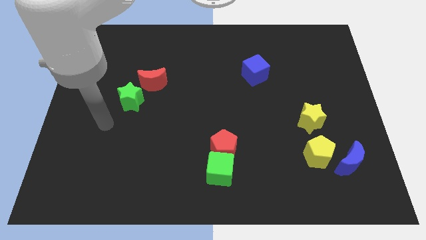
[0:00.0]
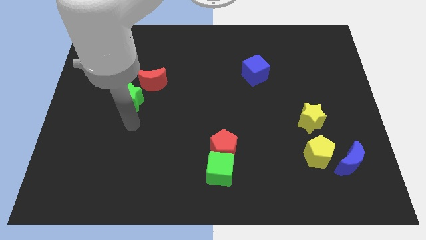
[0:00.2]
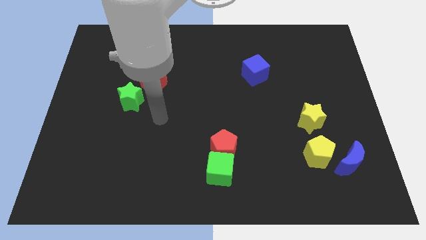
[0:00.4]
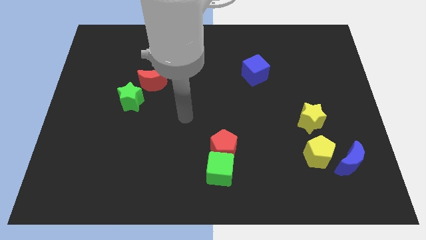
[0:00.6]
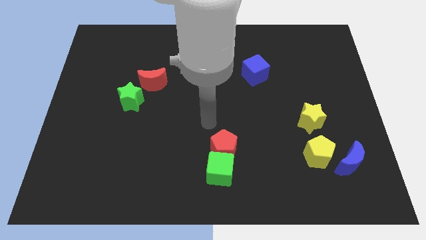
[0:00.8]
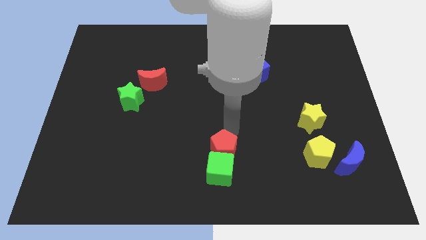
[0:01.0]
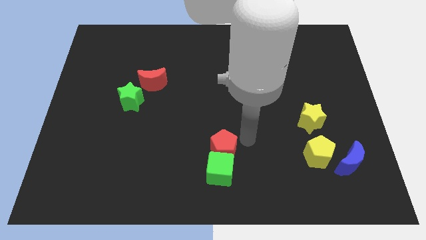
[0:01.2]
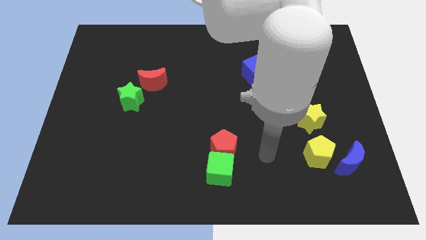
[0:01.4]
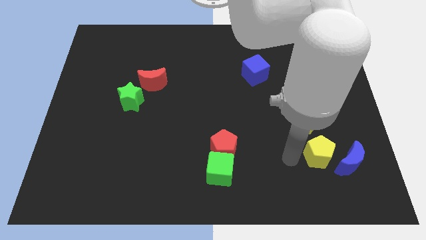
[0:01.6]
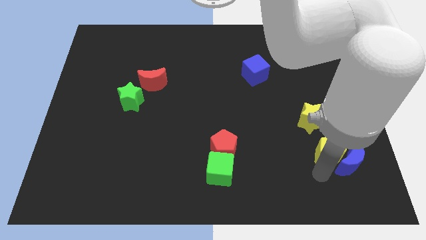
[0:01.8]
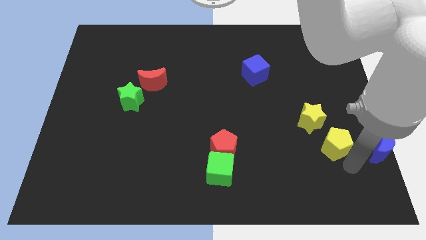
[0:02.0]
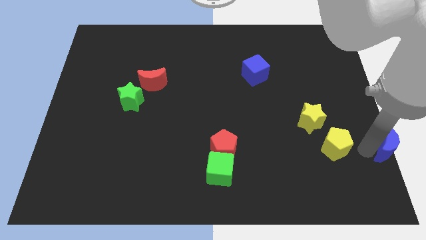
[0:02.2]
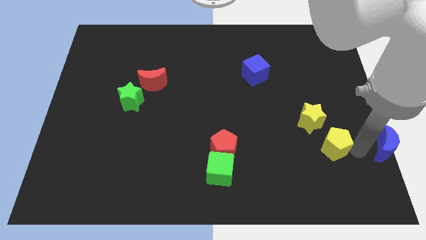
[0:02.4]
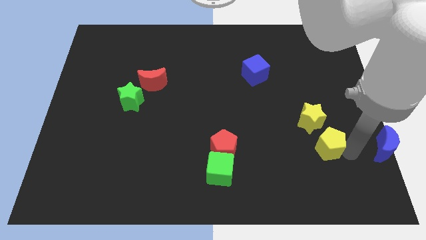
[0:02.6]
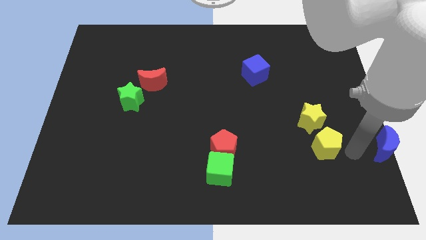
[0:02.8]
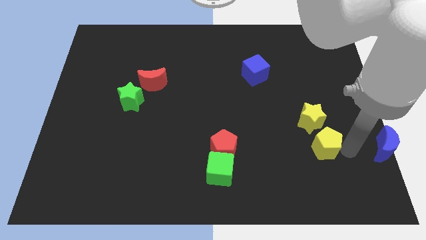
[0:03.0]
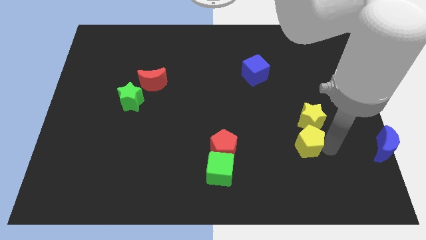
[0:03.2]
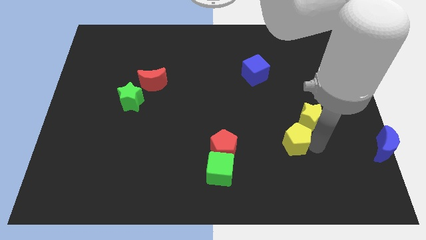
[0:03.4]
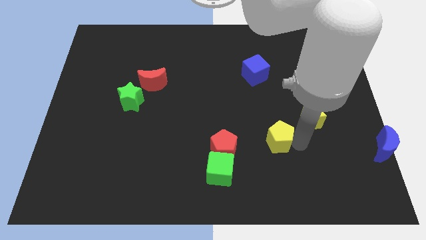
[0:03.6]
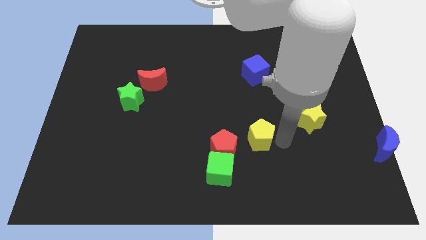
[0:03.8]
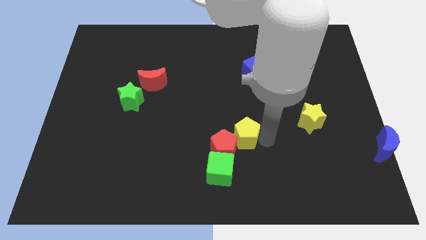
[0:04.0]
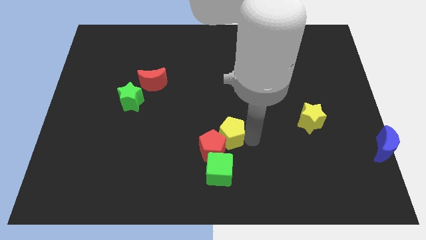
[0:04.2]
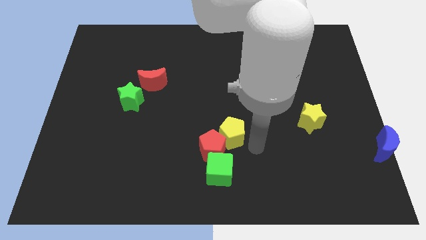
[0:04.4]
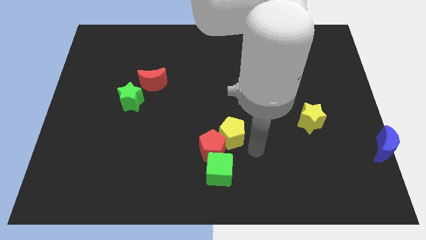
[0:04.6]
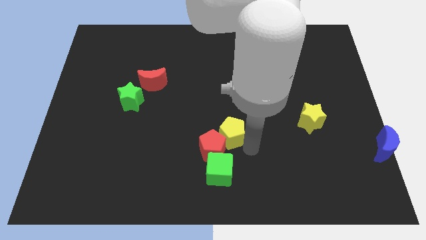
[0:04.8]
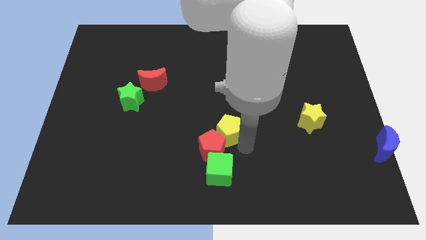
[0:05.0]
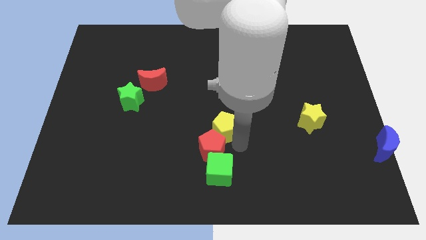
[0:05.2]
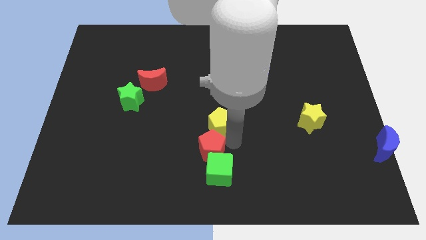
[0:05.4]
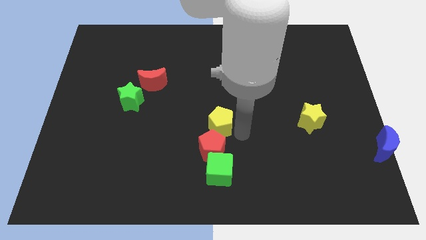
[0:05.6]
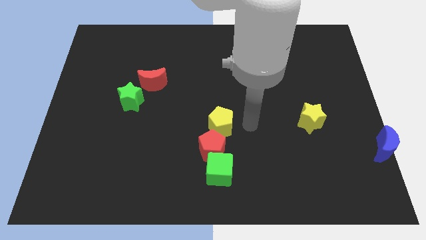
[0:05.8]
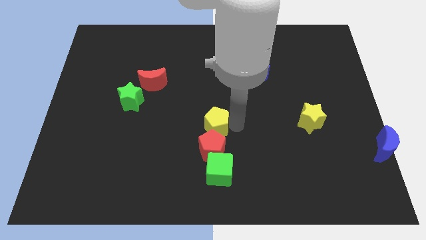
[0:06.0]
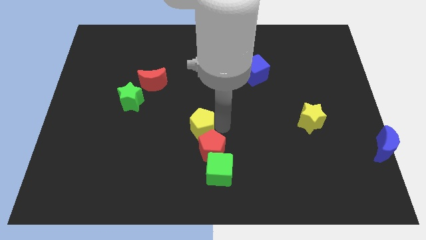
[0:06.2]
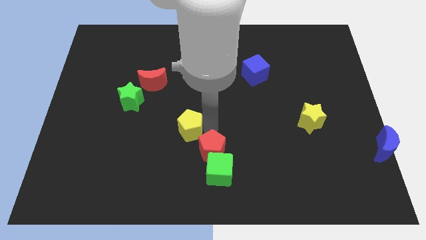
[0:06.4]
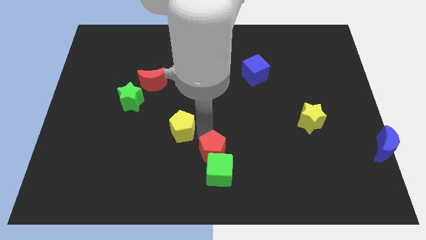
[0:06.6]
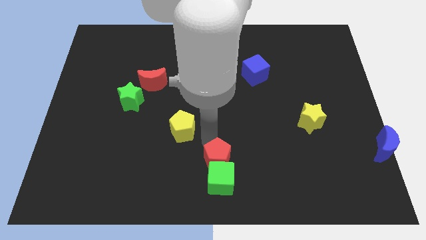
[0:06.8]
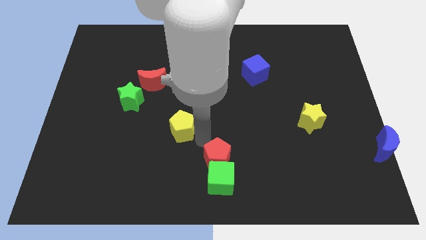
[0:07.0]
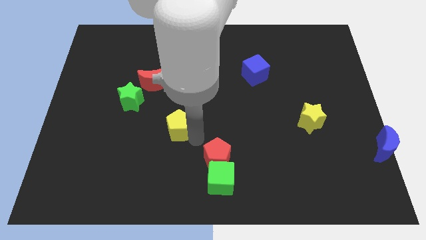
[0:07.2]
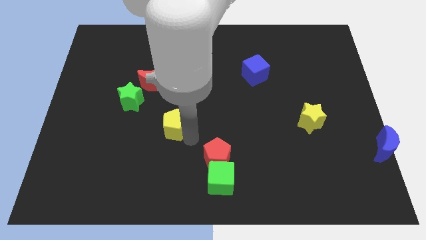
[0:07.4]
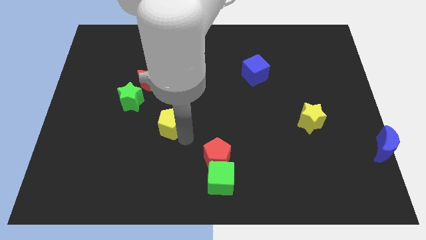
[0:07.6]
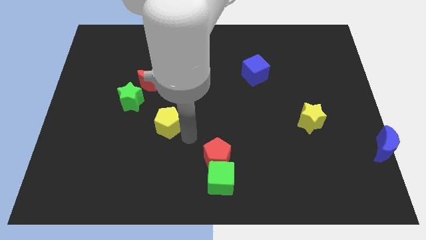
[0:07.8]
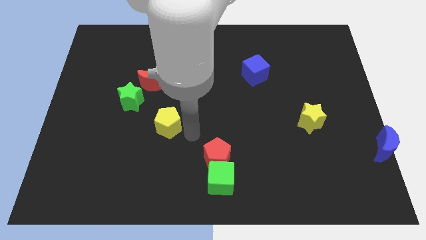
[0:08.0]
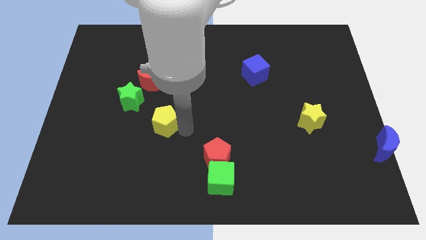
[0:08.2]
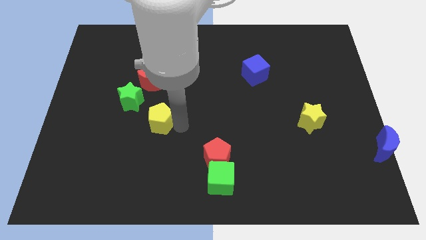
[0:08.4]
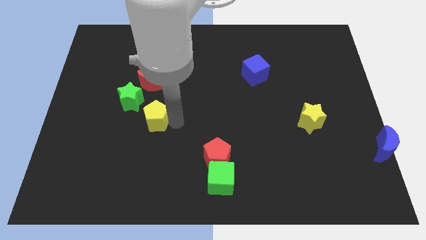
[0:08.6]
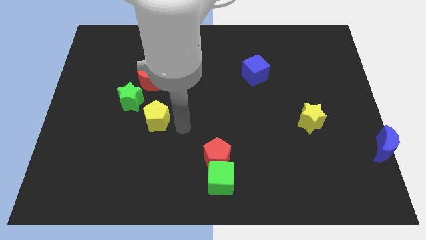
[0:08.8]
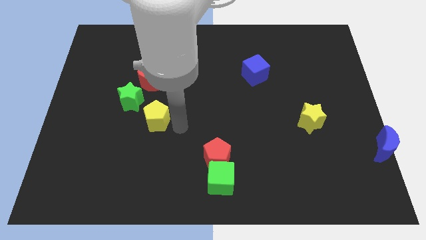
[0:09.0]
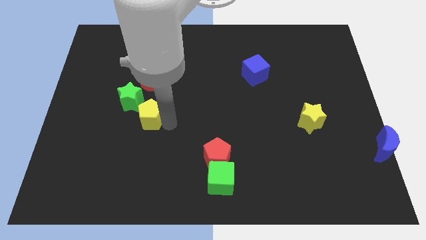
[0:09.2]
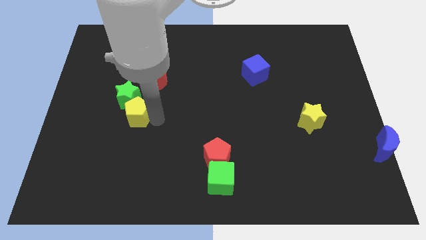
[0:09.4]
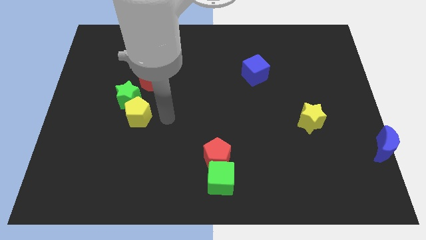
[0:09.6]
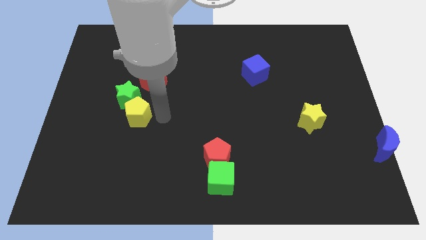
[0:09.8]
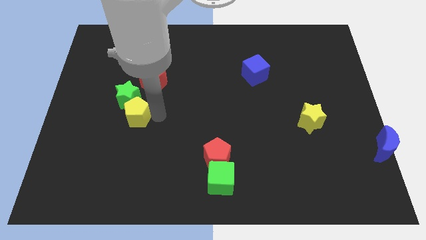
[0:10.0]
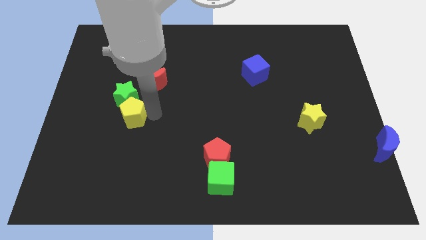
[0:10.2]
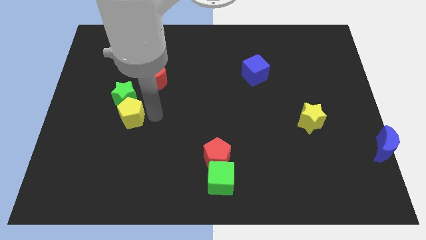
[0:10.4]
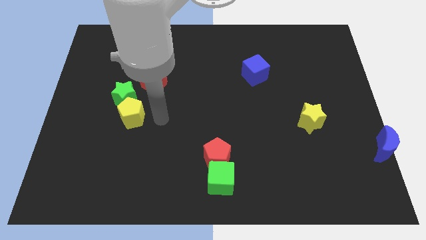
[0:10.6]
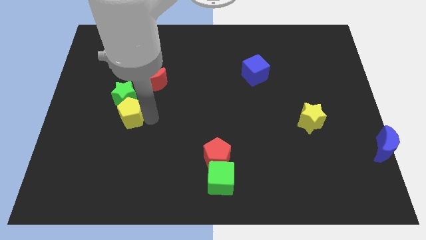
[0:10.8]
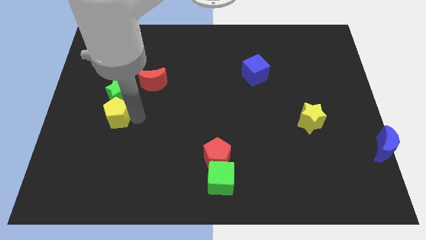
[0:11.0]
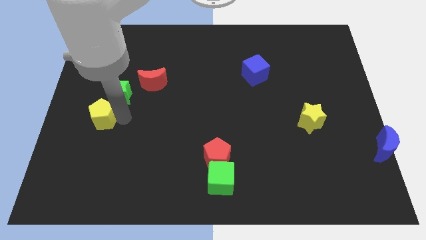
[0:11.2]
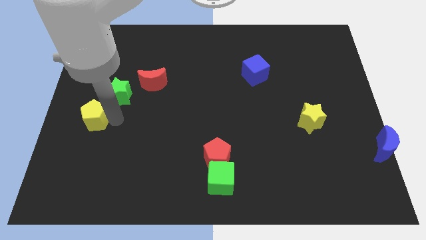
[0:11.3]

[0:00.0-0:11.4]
slide the yellow pentagon to the left side of the board

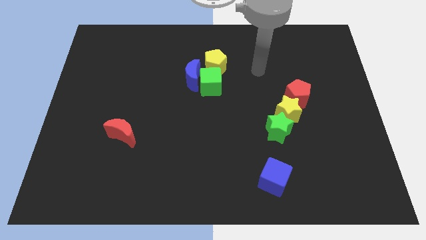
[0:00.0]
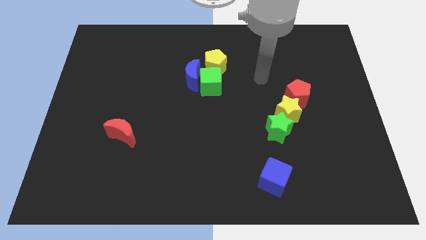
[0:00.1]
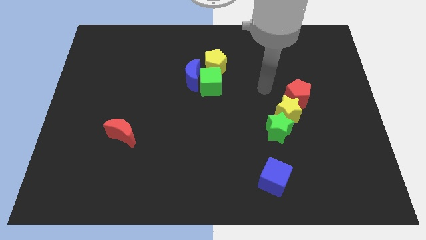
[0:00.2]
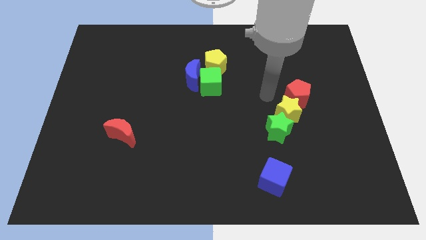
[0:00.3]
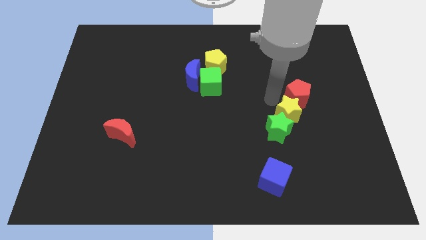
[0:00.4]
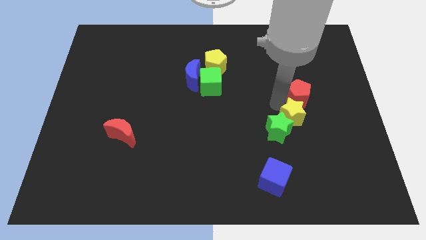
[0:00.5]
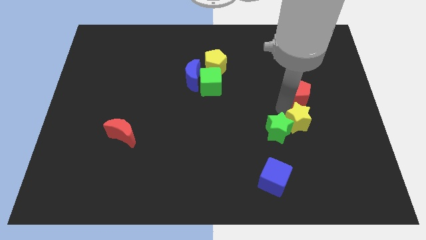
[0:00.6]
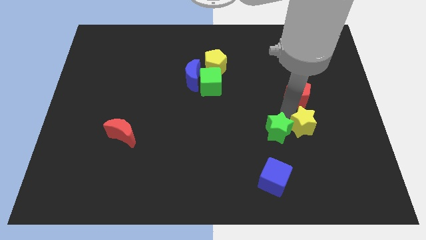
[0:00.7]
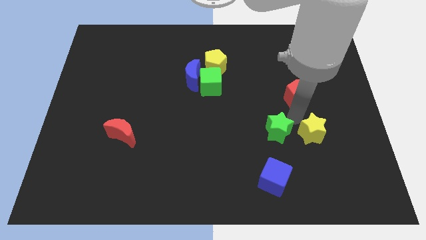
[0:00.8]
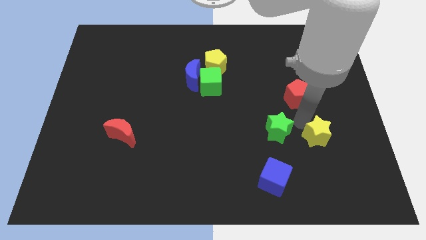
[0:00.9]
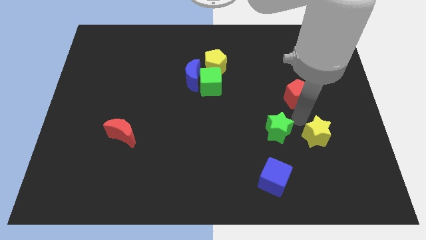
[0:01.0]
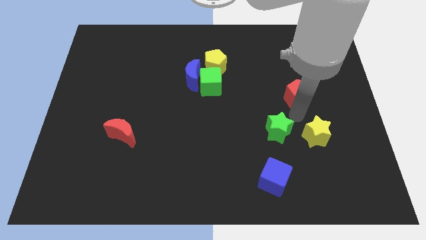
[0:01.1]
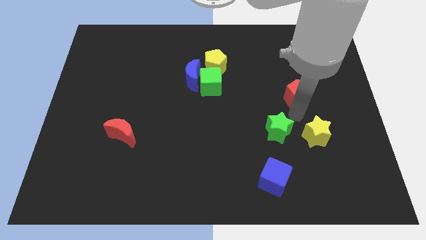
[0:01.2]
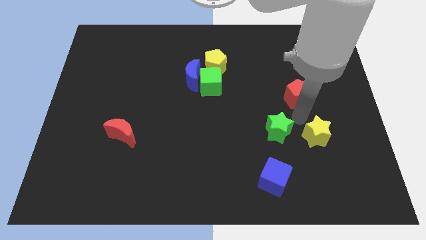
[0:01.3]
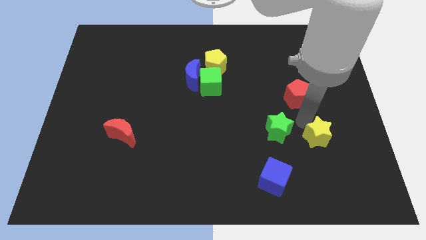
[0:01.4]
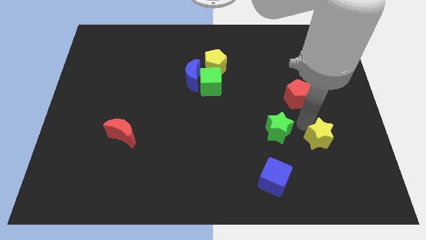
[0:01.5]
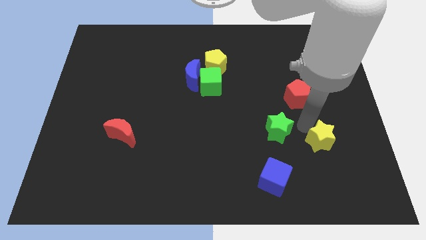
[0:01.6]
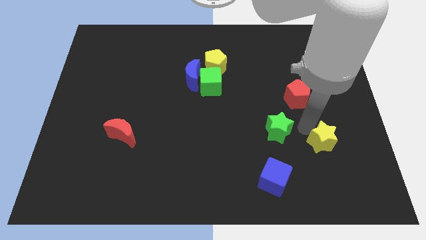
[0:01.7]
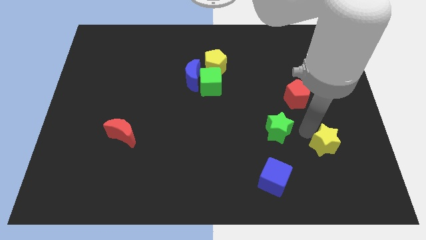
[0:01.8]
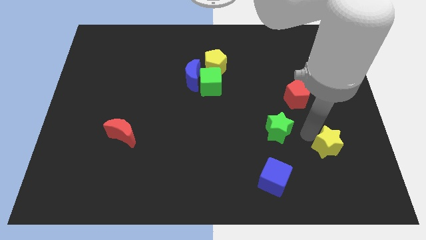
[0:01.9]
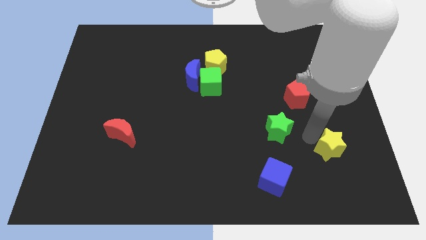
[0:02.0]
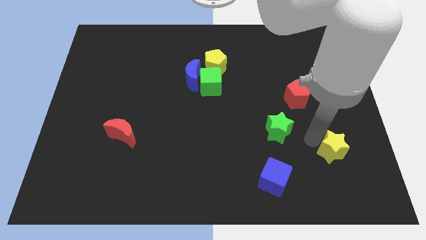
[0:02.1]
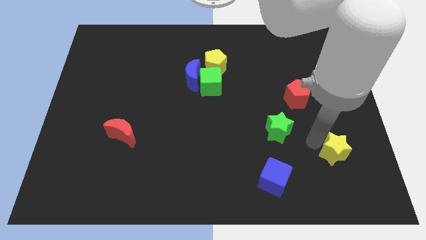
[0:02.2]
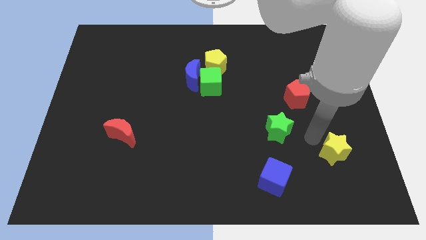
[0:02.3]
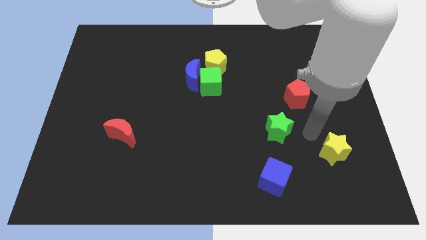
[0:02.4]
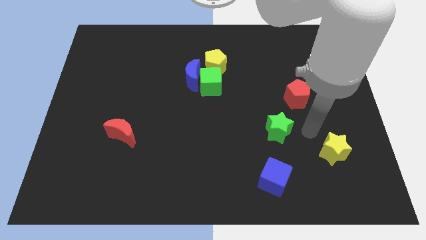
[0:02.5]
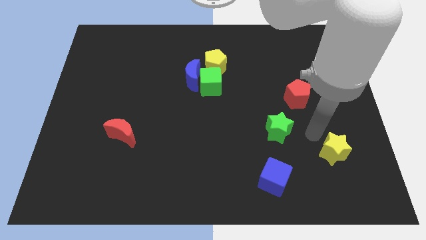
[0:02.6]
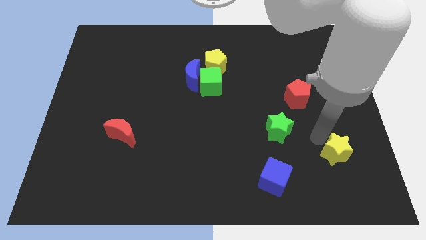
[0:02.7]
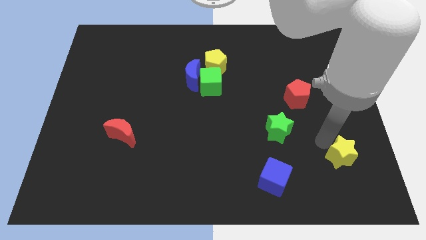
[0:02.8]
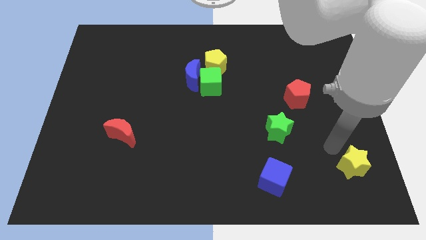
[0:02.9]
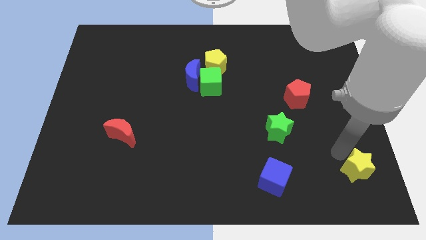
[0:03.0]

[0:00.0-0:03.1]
slide the yellow star to the bottom right corner
